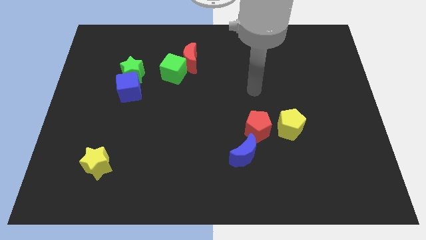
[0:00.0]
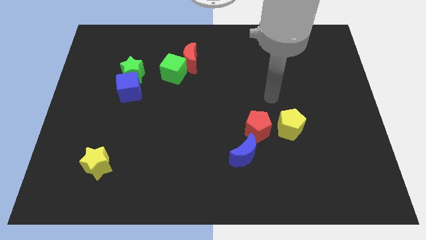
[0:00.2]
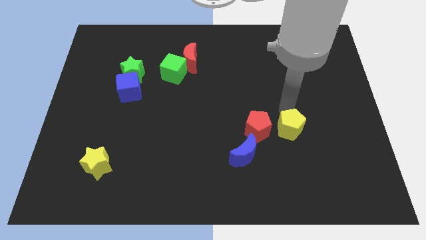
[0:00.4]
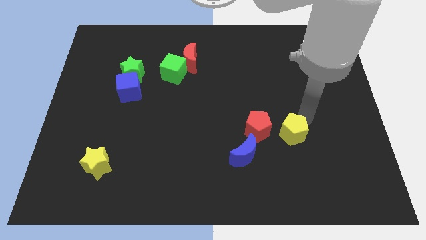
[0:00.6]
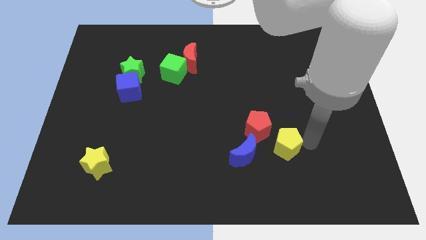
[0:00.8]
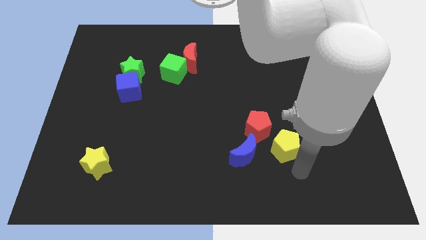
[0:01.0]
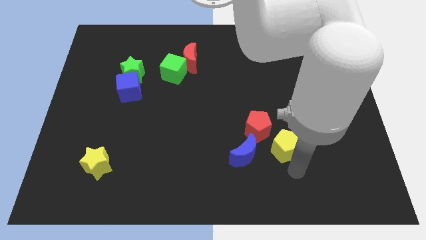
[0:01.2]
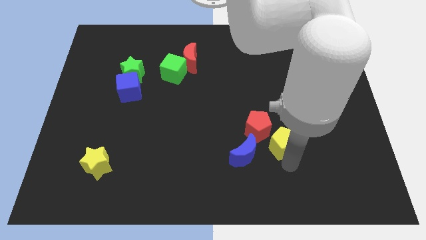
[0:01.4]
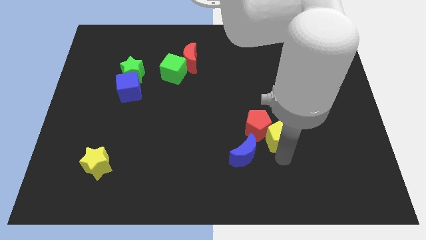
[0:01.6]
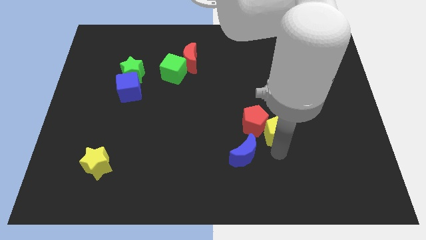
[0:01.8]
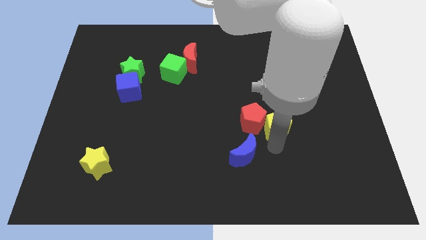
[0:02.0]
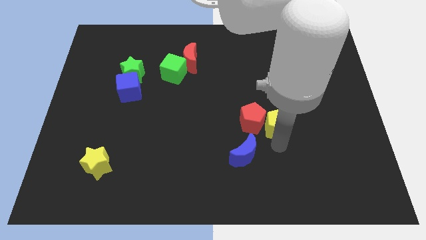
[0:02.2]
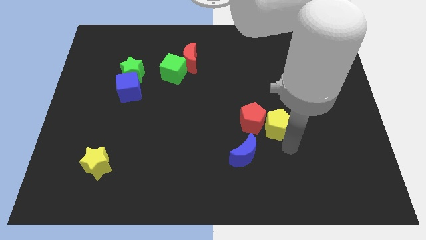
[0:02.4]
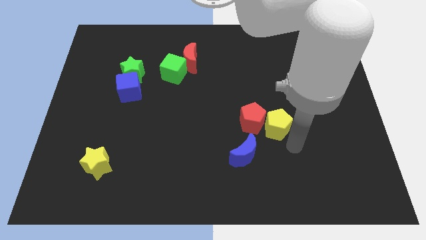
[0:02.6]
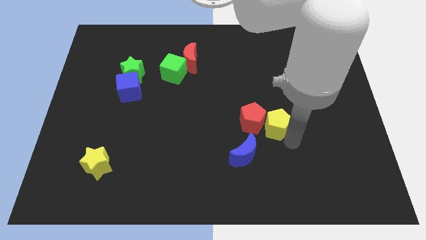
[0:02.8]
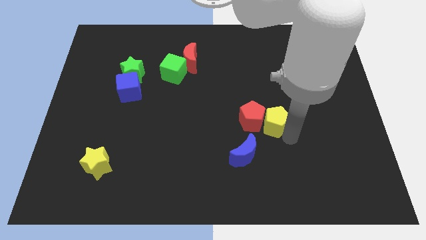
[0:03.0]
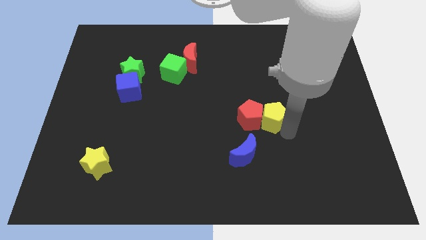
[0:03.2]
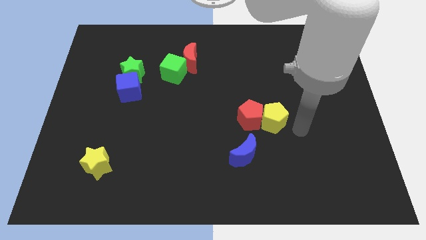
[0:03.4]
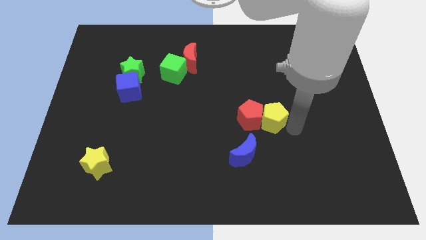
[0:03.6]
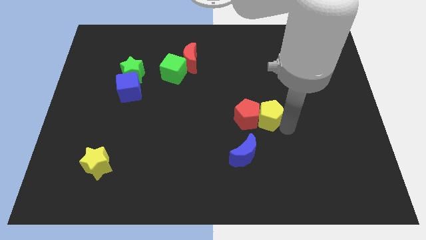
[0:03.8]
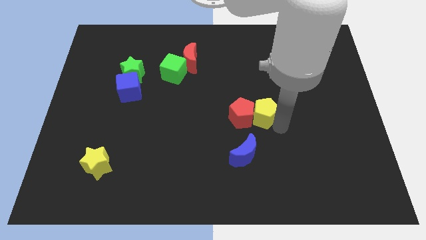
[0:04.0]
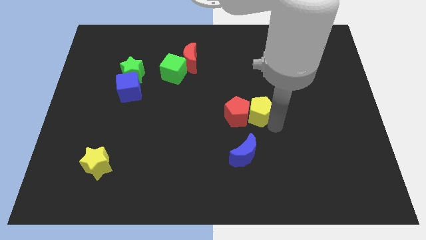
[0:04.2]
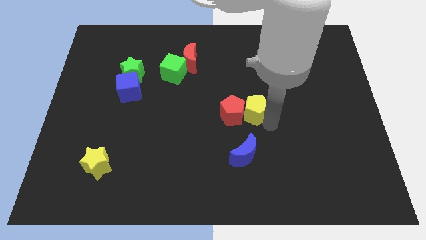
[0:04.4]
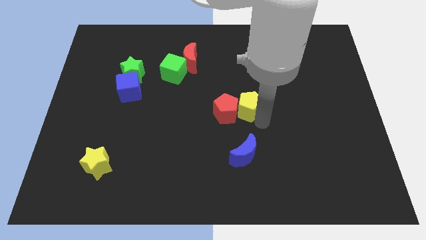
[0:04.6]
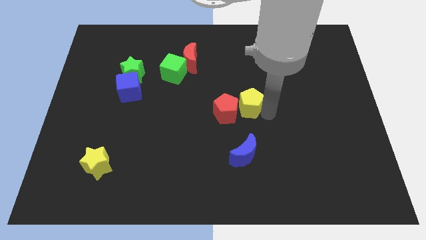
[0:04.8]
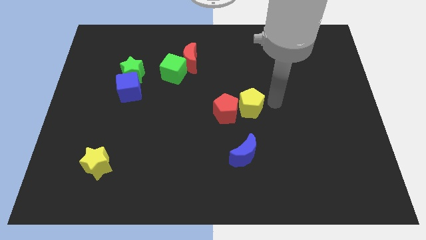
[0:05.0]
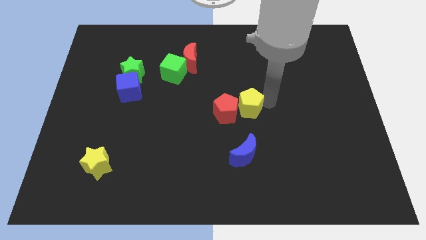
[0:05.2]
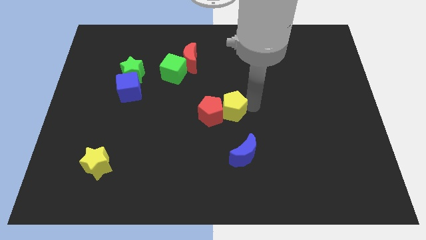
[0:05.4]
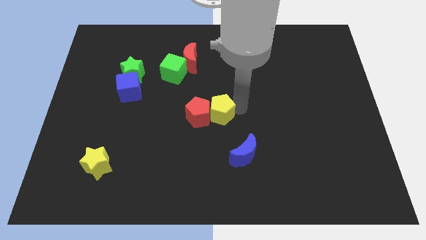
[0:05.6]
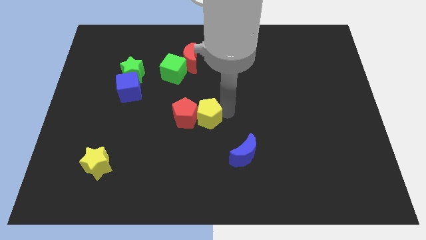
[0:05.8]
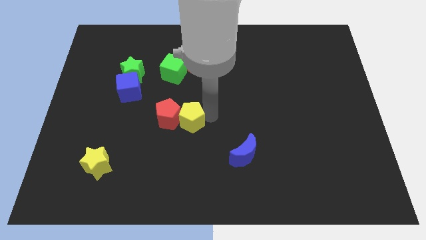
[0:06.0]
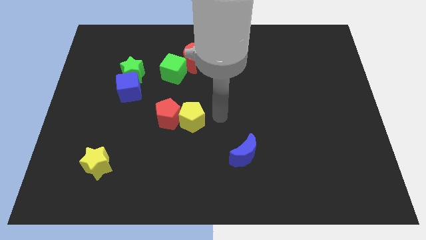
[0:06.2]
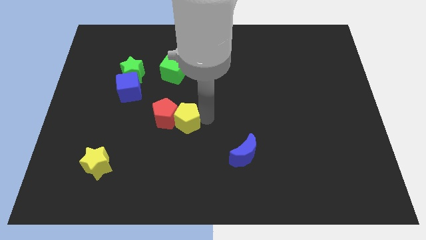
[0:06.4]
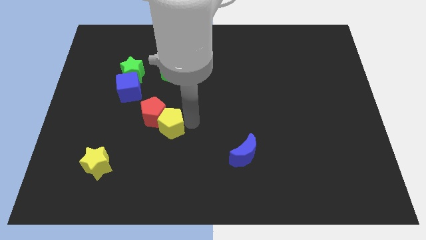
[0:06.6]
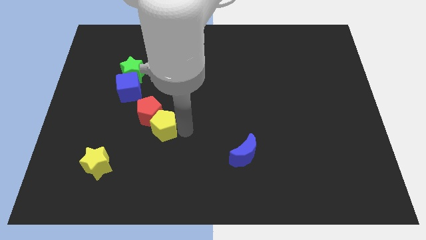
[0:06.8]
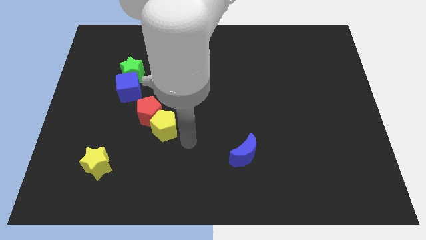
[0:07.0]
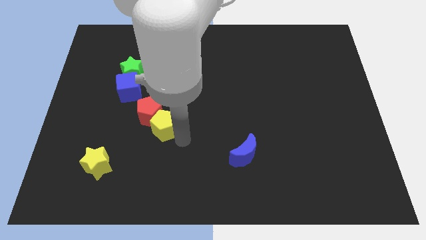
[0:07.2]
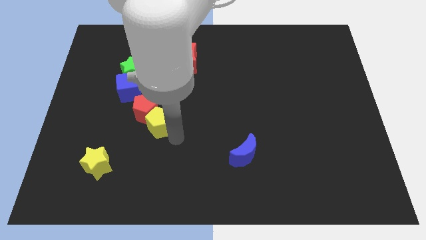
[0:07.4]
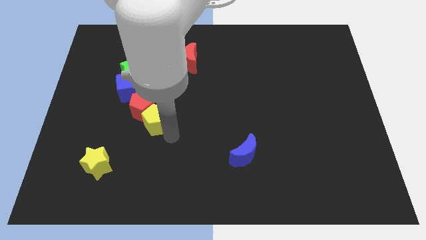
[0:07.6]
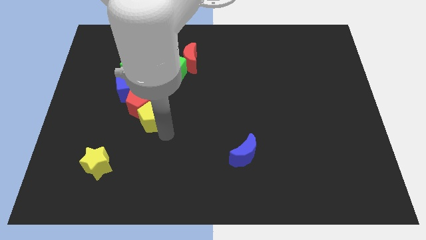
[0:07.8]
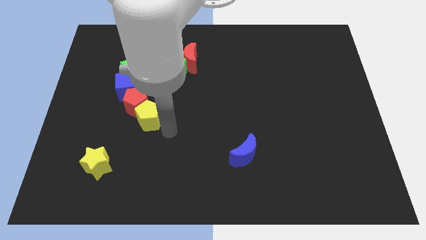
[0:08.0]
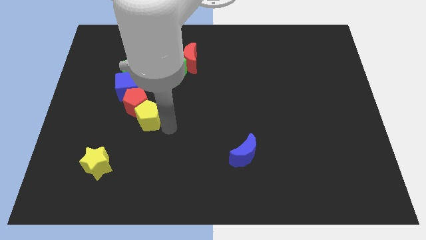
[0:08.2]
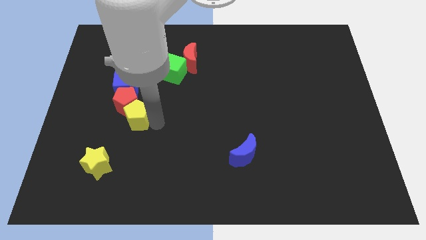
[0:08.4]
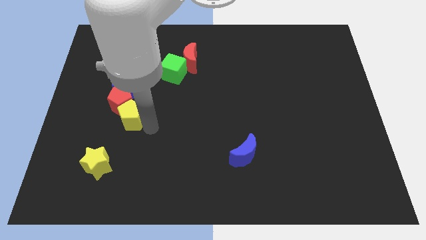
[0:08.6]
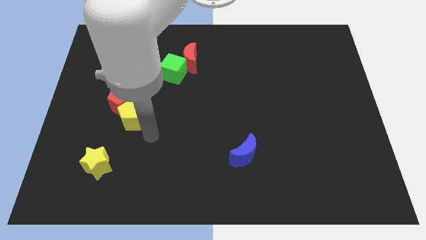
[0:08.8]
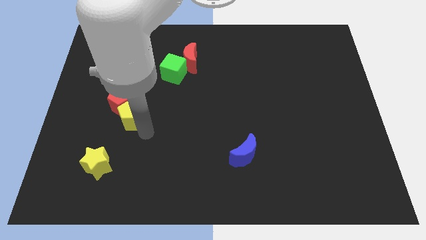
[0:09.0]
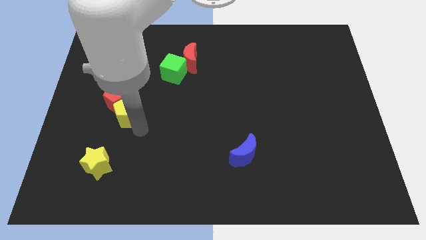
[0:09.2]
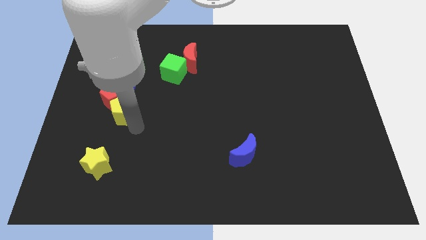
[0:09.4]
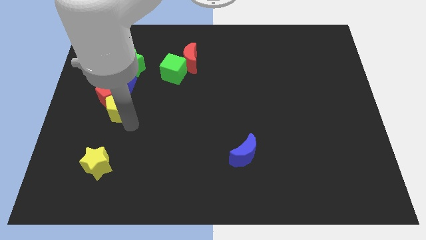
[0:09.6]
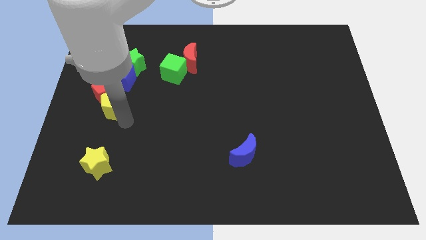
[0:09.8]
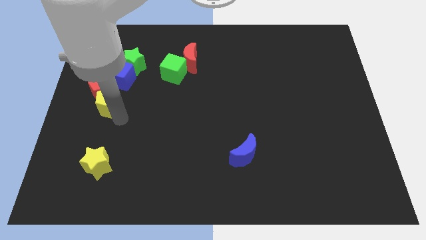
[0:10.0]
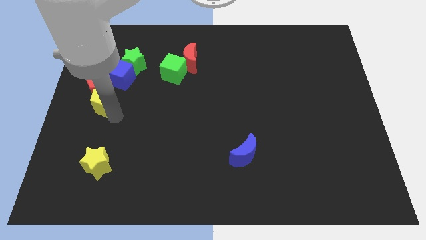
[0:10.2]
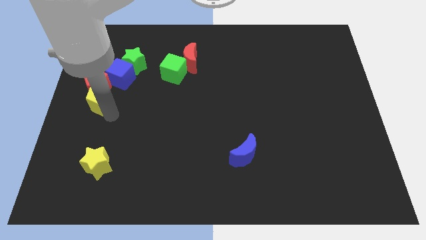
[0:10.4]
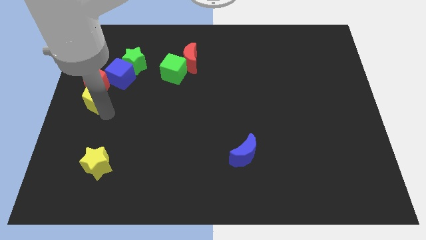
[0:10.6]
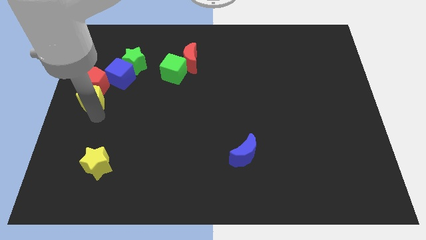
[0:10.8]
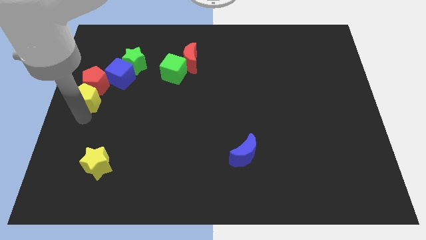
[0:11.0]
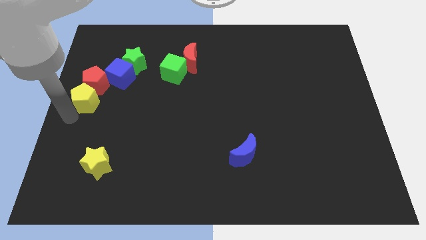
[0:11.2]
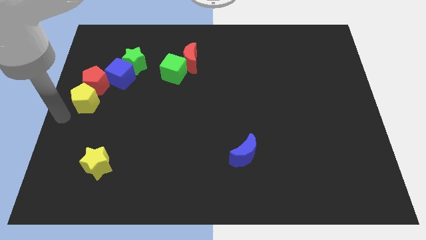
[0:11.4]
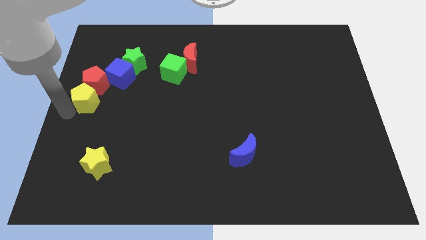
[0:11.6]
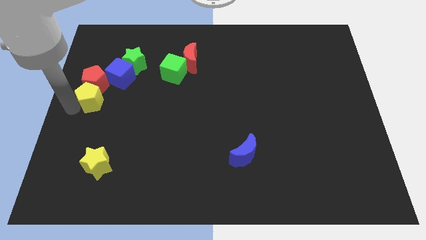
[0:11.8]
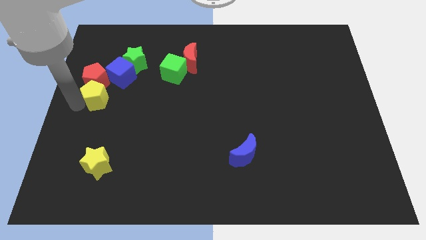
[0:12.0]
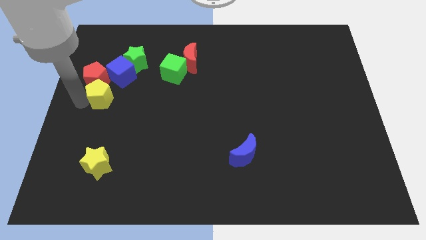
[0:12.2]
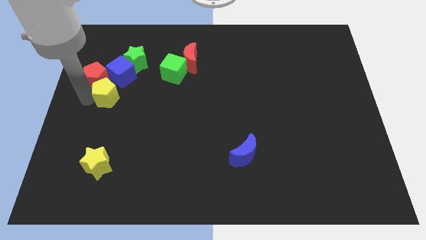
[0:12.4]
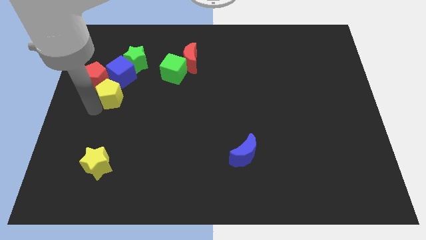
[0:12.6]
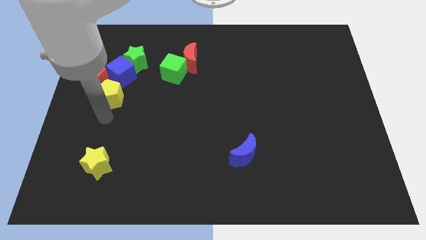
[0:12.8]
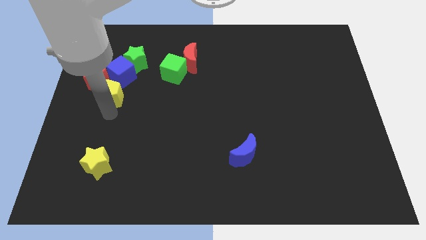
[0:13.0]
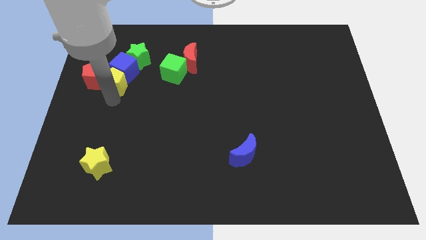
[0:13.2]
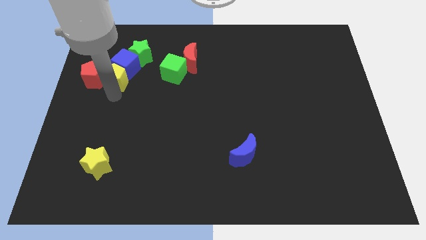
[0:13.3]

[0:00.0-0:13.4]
move the yellow pentagon to the left of the green cube

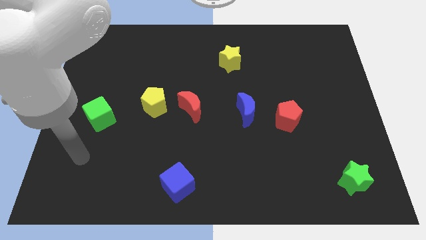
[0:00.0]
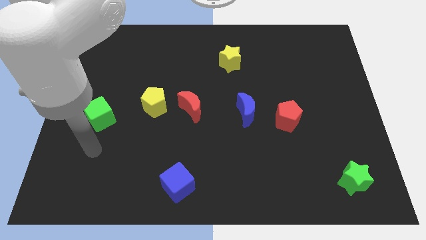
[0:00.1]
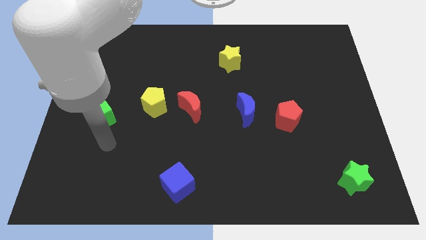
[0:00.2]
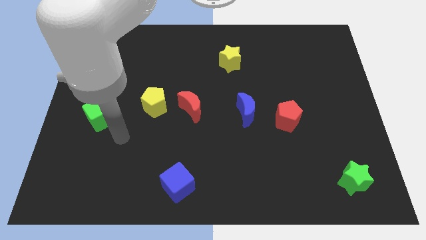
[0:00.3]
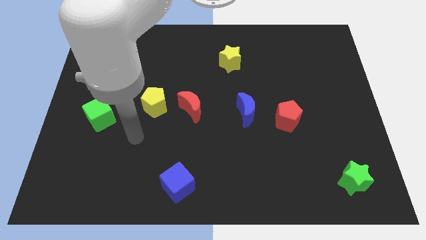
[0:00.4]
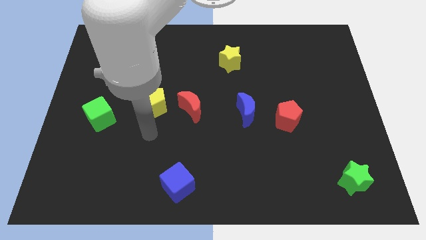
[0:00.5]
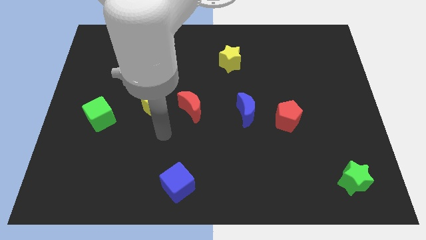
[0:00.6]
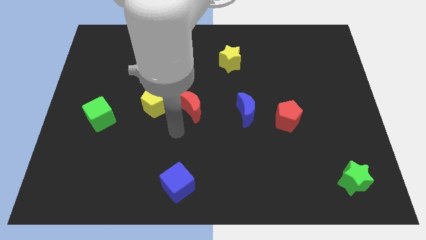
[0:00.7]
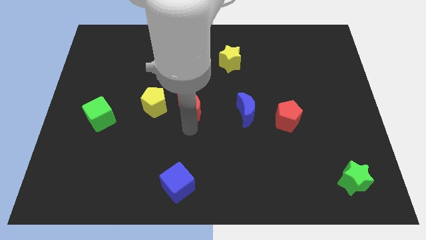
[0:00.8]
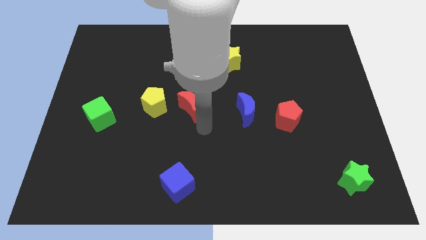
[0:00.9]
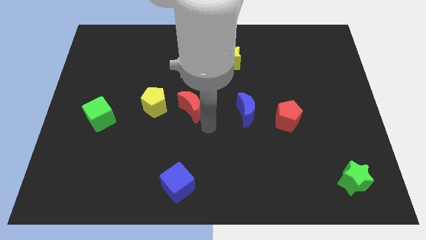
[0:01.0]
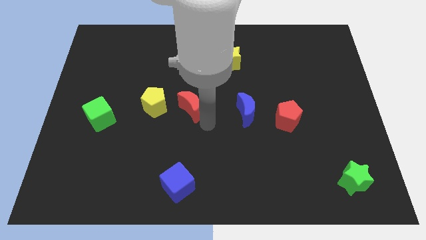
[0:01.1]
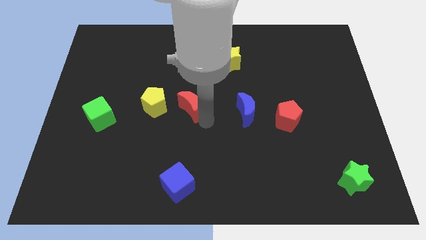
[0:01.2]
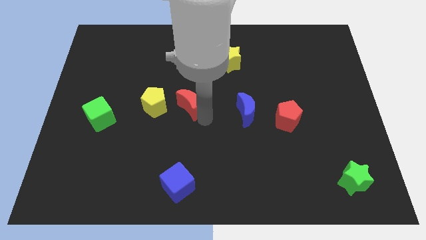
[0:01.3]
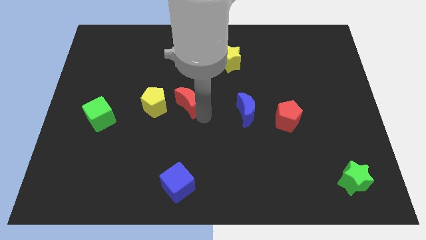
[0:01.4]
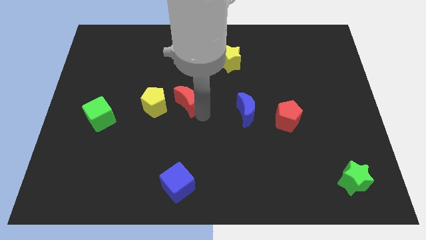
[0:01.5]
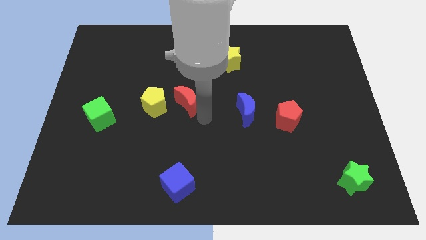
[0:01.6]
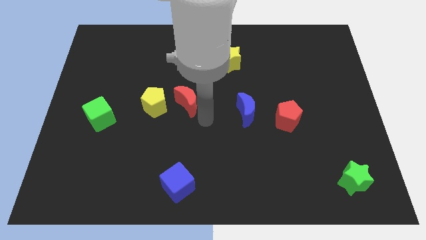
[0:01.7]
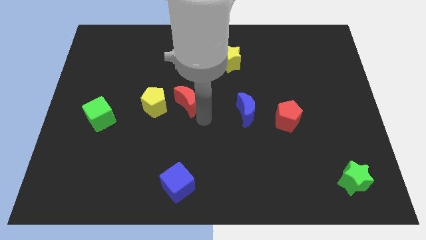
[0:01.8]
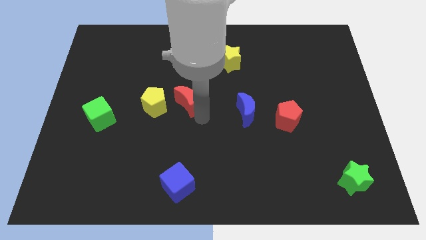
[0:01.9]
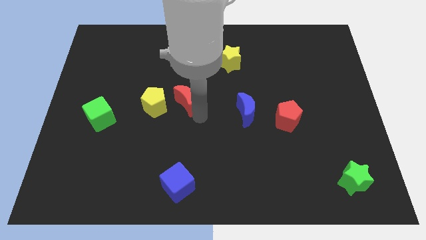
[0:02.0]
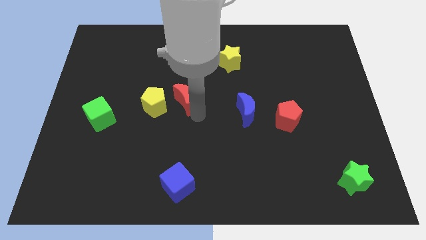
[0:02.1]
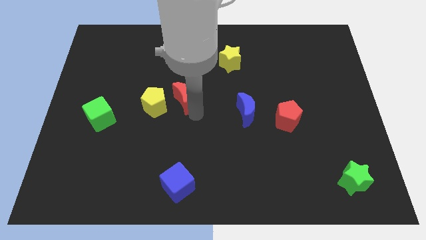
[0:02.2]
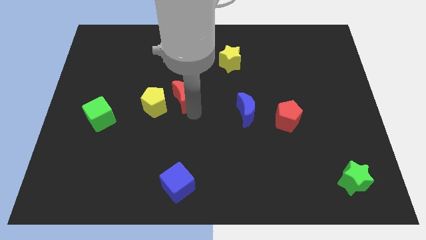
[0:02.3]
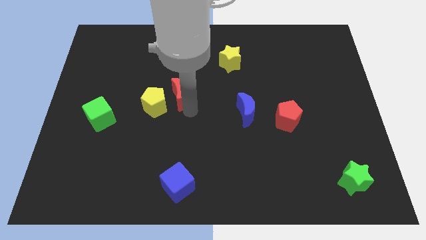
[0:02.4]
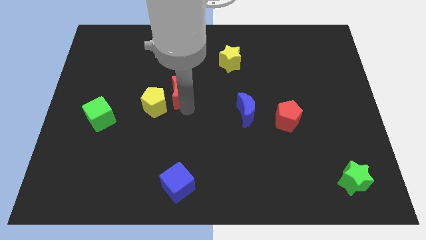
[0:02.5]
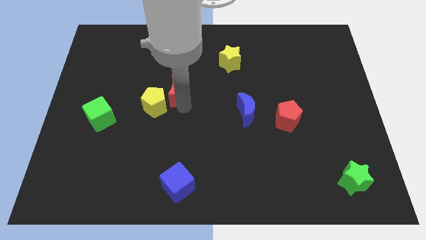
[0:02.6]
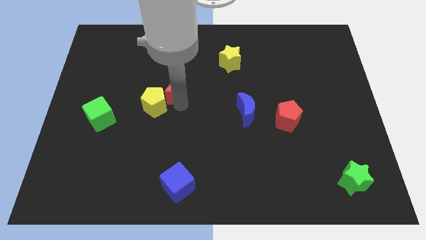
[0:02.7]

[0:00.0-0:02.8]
move the red moon above the yellow pentagon
